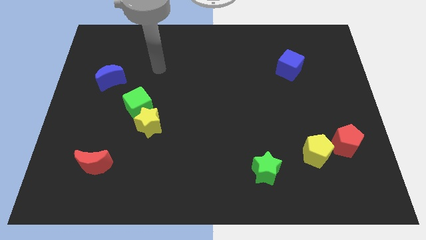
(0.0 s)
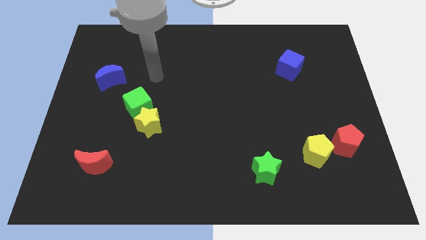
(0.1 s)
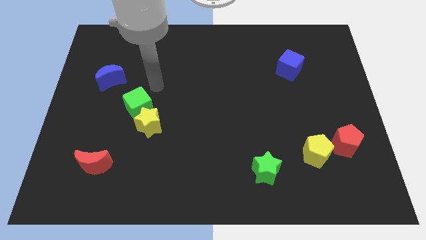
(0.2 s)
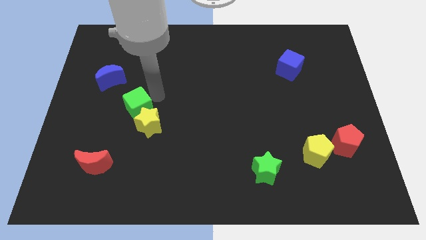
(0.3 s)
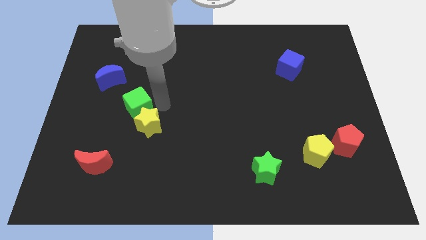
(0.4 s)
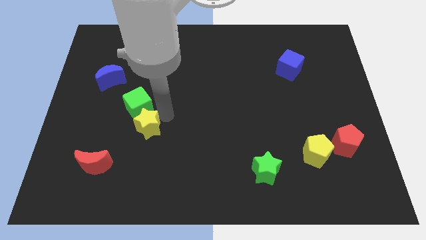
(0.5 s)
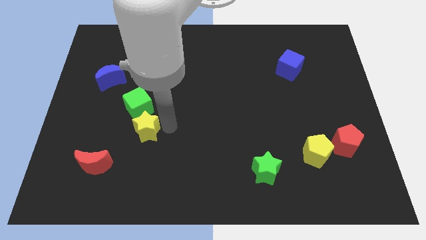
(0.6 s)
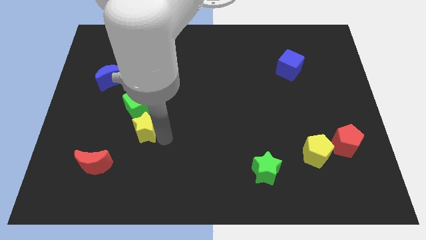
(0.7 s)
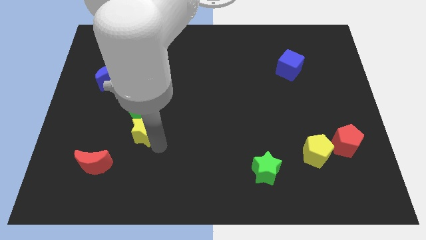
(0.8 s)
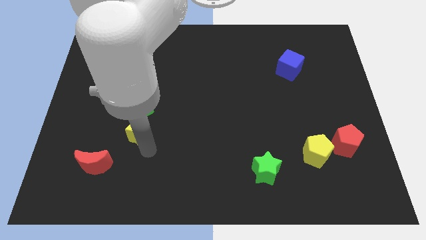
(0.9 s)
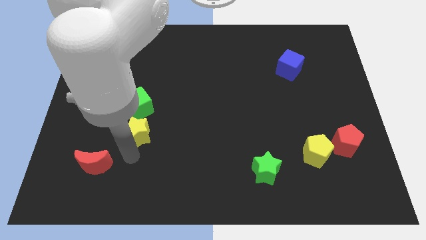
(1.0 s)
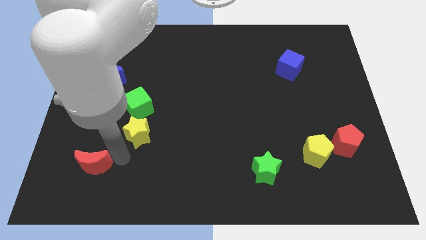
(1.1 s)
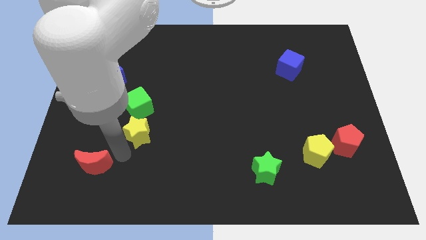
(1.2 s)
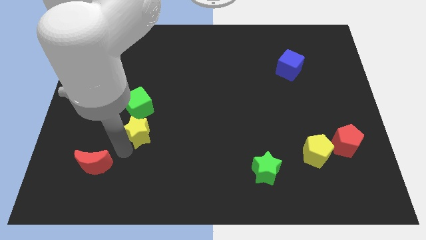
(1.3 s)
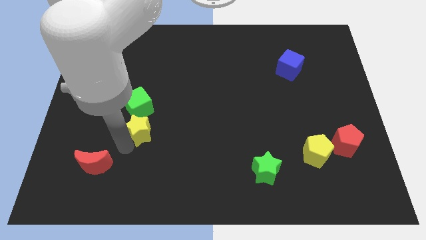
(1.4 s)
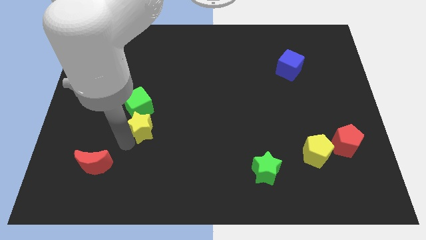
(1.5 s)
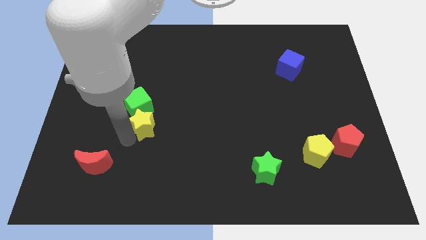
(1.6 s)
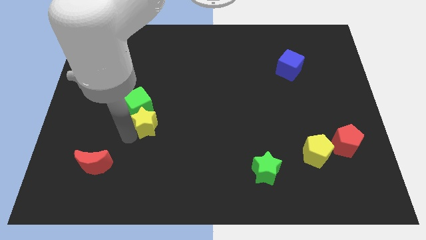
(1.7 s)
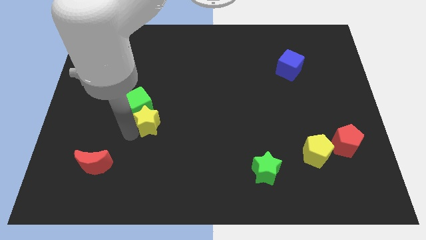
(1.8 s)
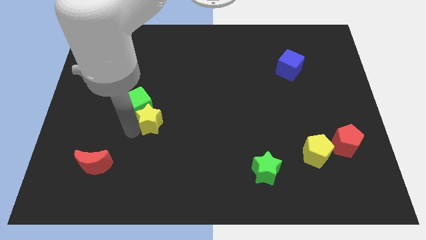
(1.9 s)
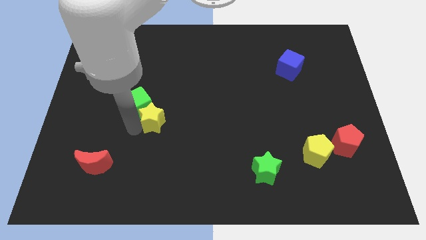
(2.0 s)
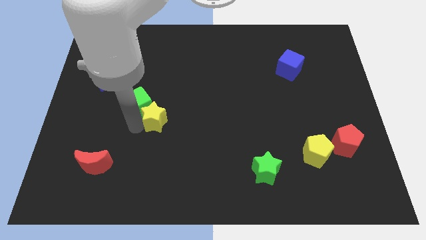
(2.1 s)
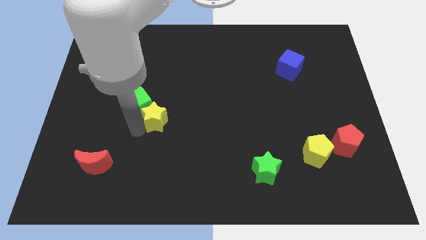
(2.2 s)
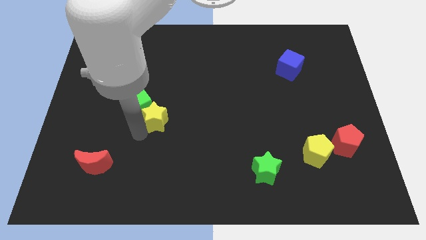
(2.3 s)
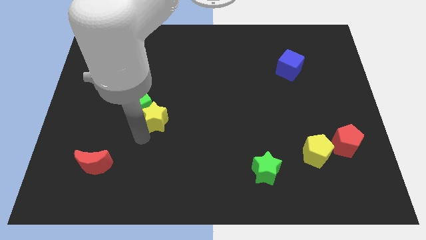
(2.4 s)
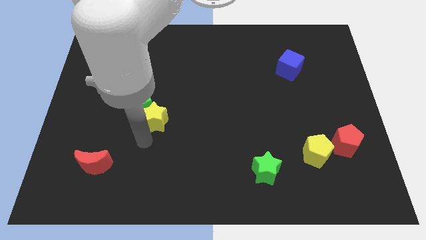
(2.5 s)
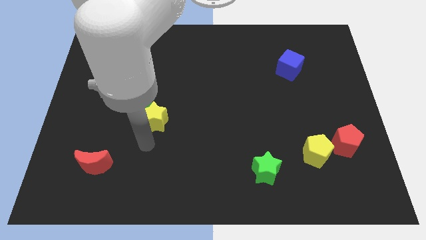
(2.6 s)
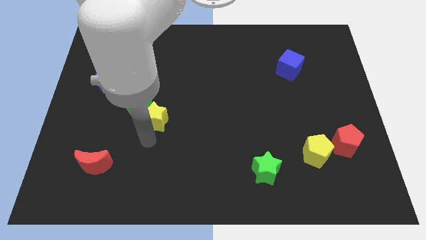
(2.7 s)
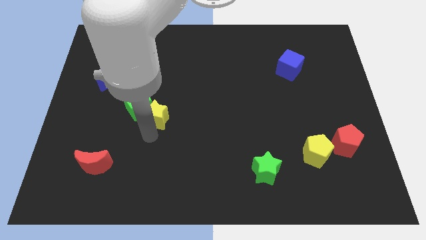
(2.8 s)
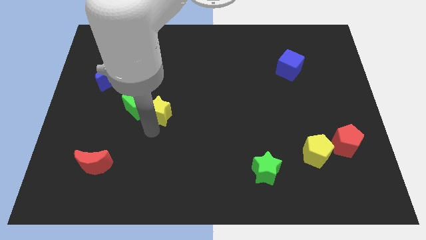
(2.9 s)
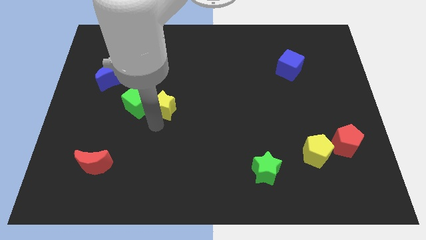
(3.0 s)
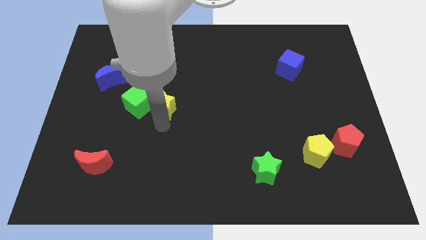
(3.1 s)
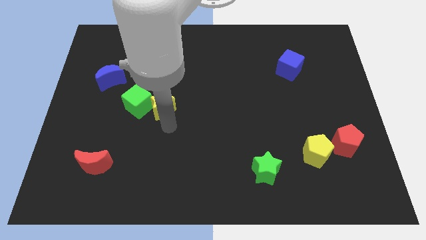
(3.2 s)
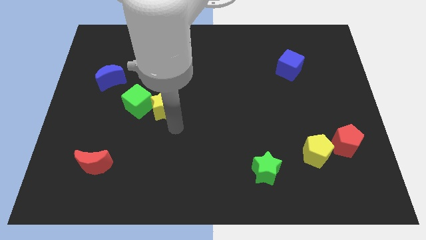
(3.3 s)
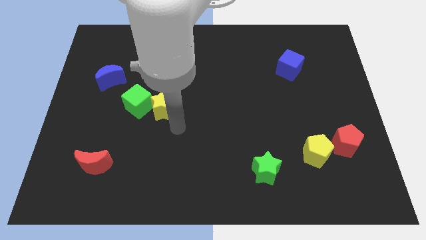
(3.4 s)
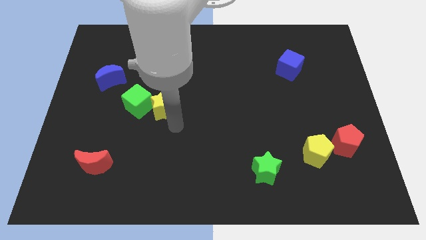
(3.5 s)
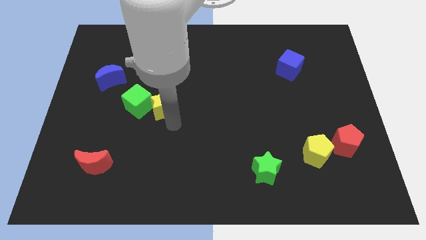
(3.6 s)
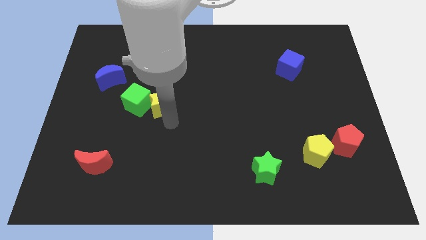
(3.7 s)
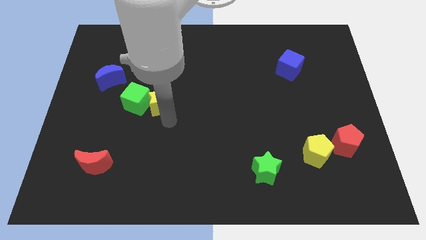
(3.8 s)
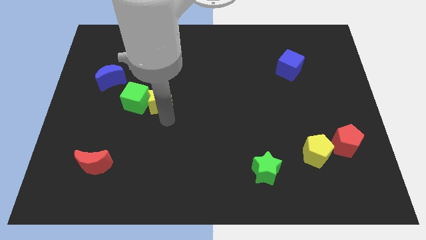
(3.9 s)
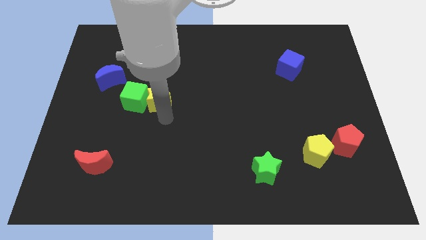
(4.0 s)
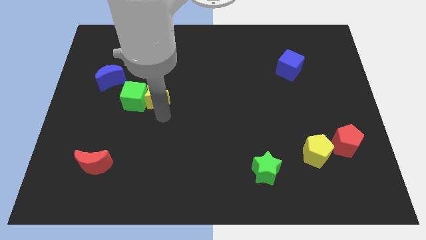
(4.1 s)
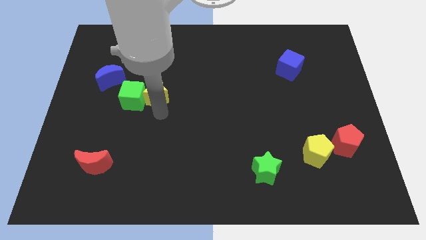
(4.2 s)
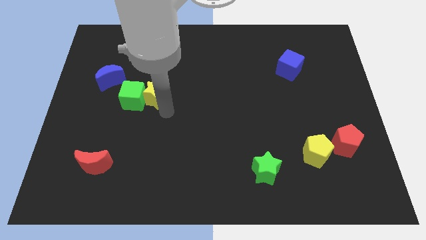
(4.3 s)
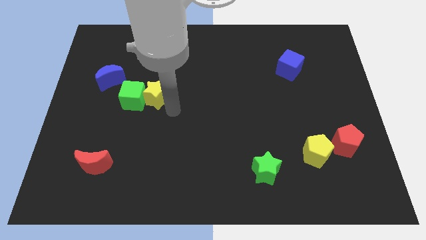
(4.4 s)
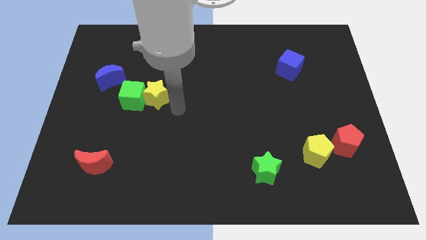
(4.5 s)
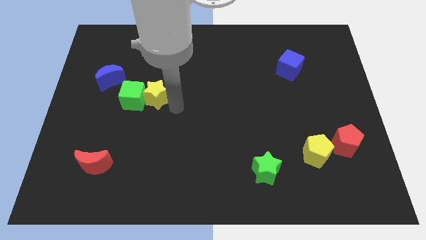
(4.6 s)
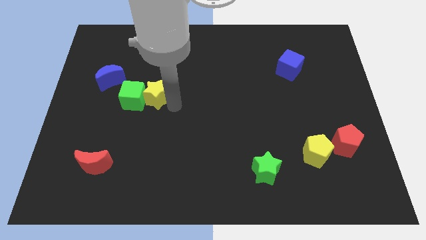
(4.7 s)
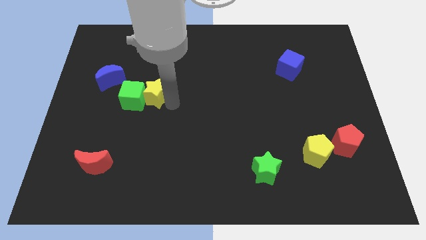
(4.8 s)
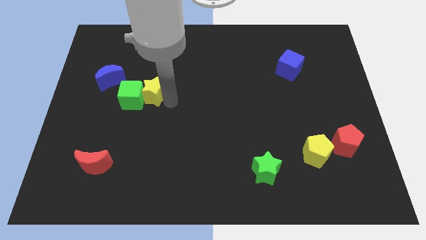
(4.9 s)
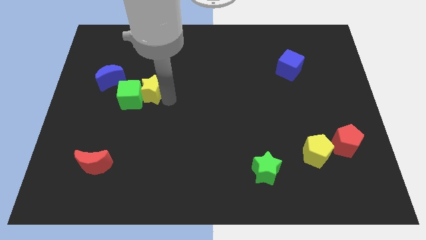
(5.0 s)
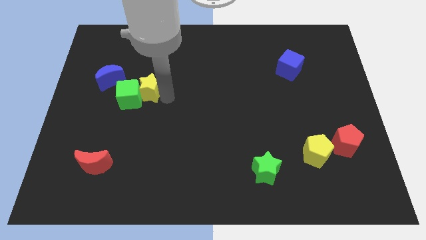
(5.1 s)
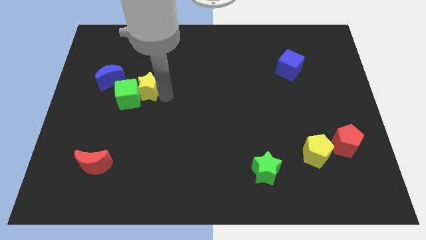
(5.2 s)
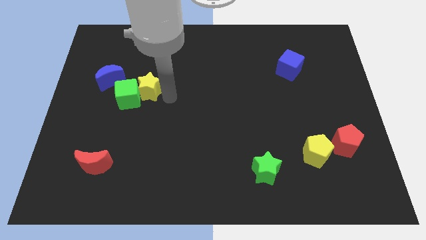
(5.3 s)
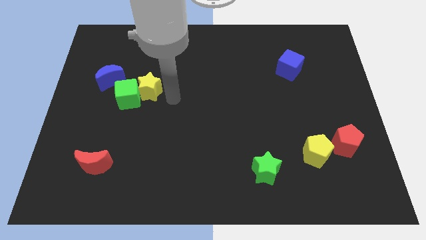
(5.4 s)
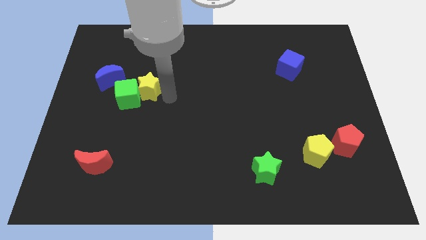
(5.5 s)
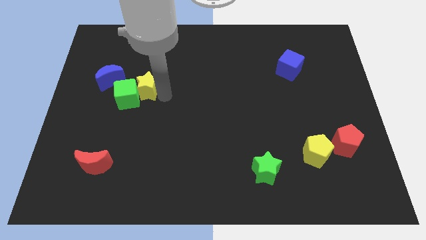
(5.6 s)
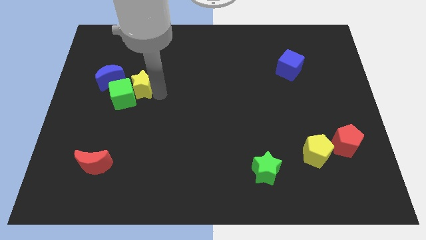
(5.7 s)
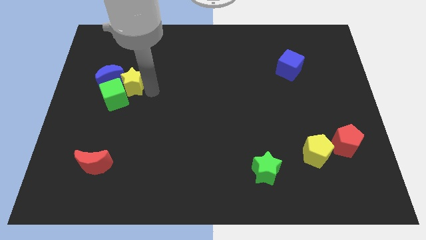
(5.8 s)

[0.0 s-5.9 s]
push the yellow star close to the blue moon

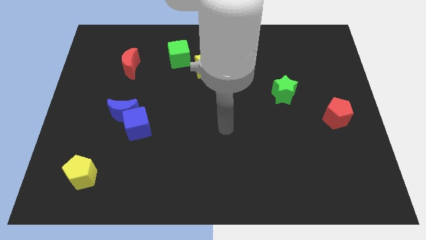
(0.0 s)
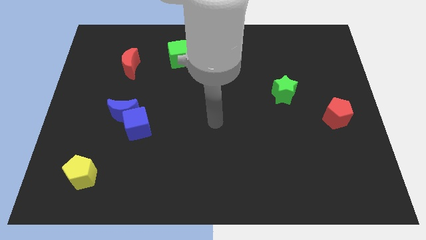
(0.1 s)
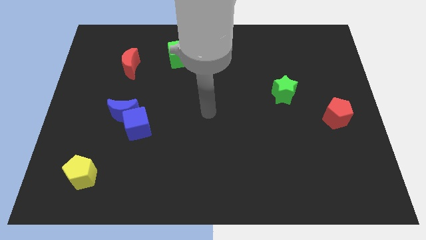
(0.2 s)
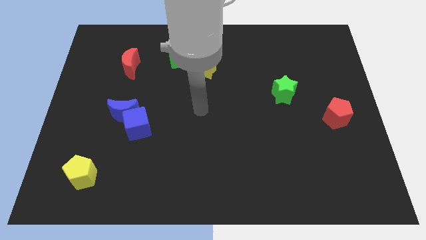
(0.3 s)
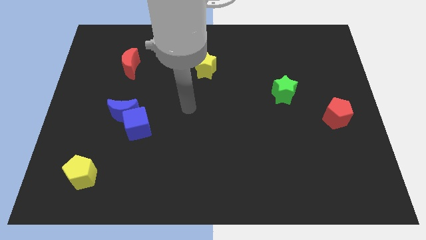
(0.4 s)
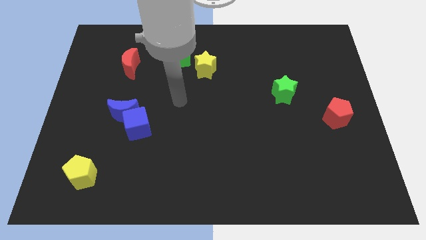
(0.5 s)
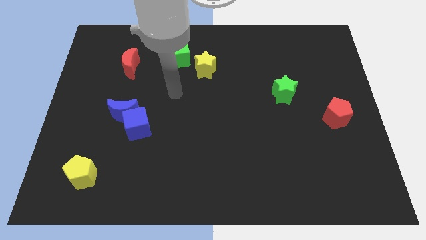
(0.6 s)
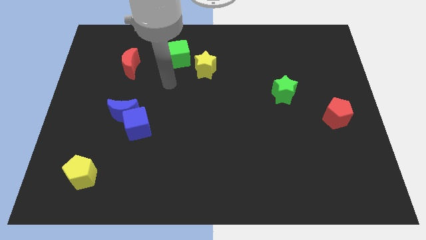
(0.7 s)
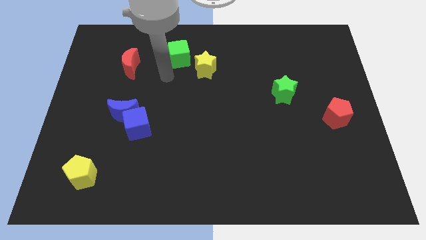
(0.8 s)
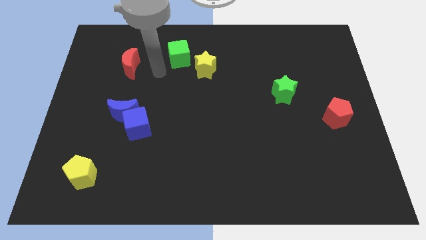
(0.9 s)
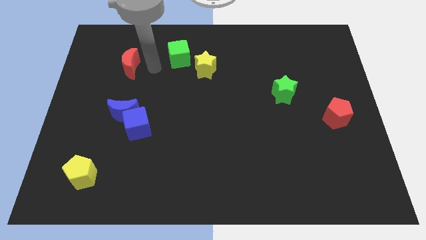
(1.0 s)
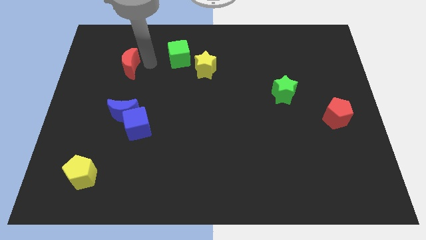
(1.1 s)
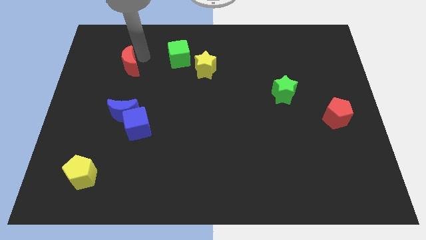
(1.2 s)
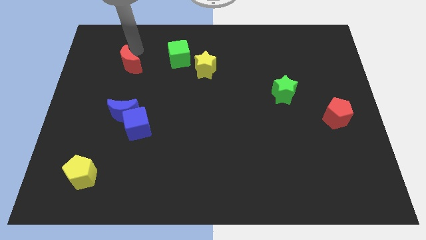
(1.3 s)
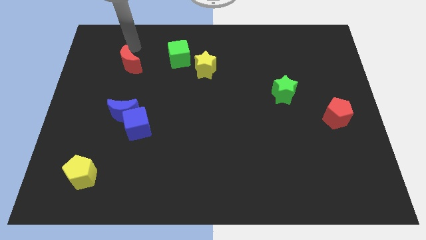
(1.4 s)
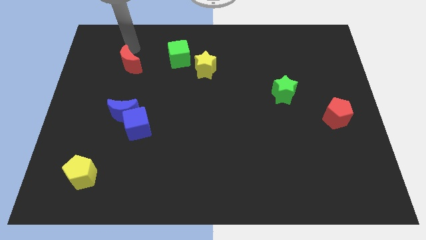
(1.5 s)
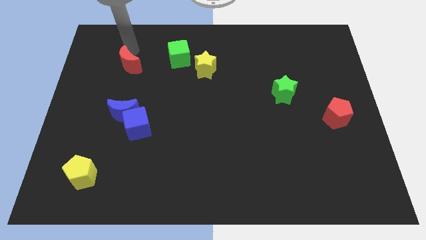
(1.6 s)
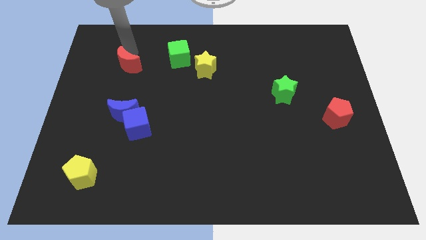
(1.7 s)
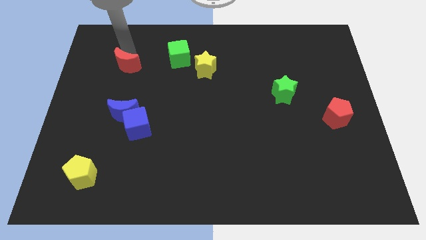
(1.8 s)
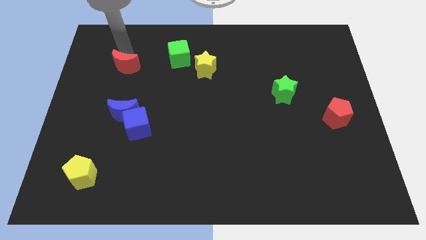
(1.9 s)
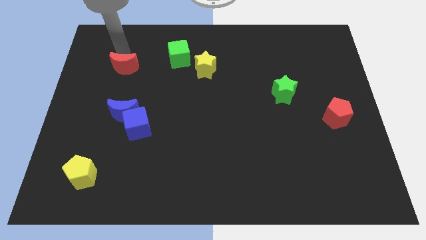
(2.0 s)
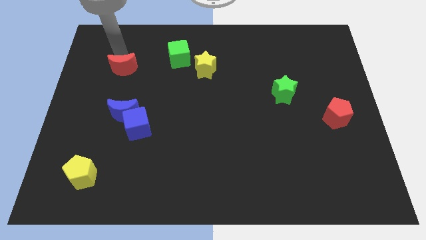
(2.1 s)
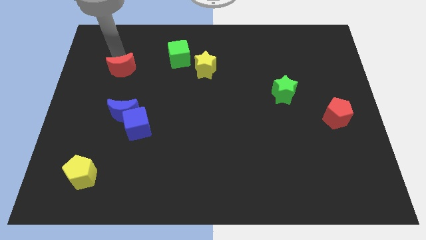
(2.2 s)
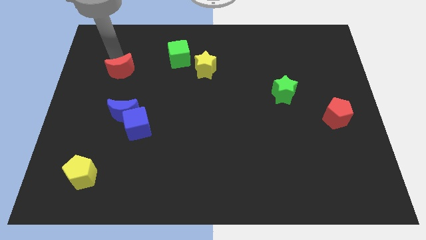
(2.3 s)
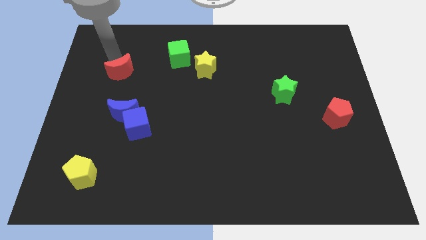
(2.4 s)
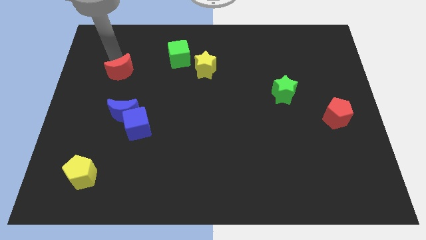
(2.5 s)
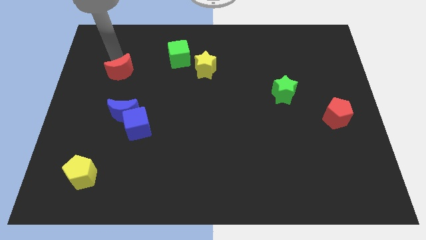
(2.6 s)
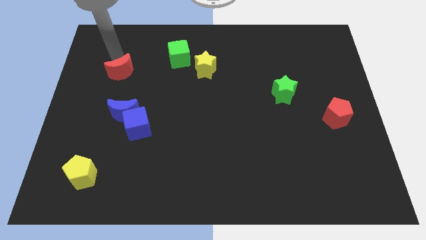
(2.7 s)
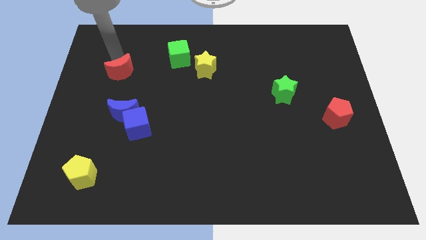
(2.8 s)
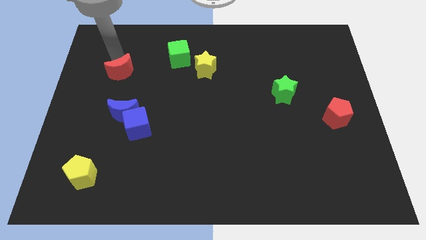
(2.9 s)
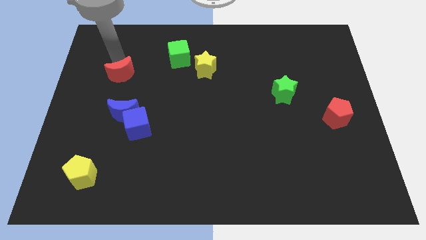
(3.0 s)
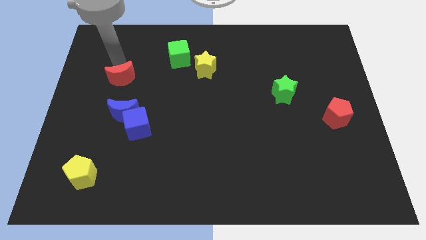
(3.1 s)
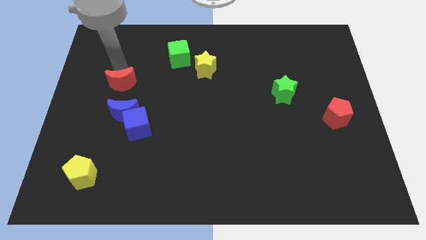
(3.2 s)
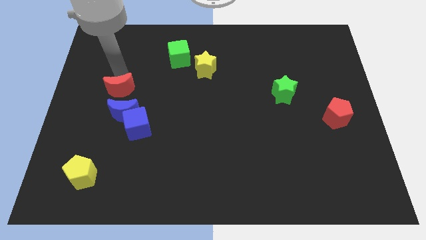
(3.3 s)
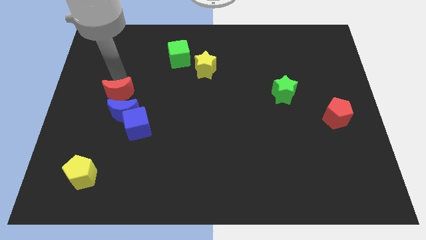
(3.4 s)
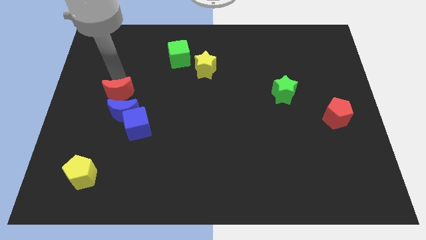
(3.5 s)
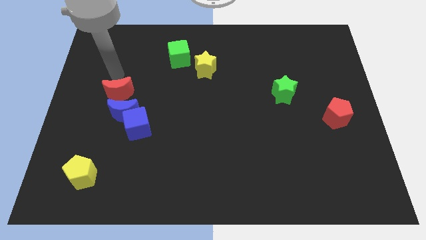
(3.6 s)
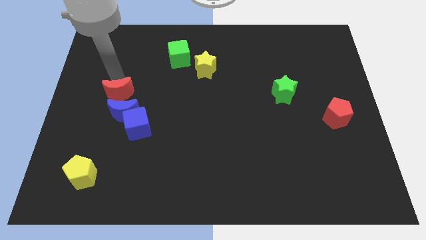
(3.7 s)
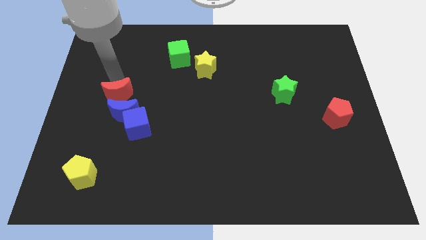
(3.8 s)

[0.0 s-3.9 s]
put the red moon close to the blue moon
